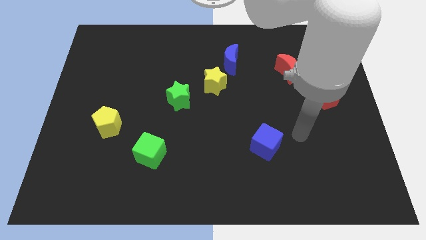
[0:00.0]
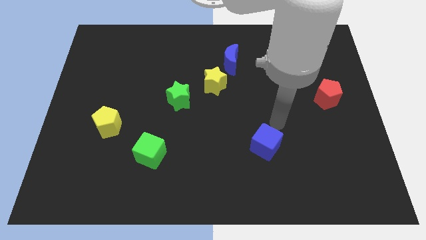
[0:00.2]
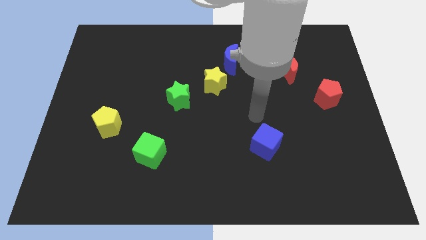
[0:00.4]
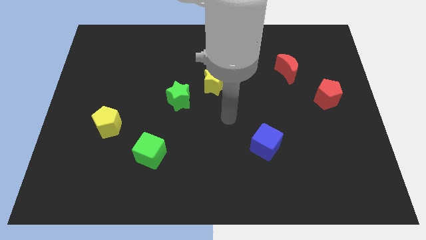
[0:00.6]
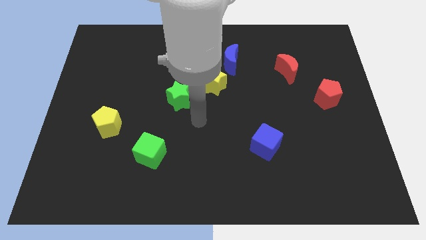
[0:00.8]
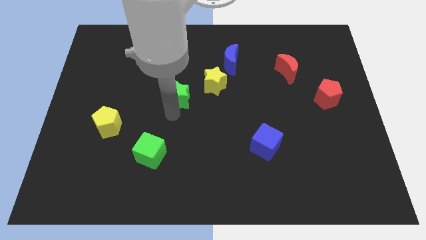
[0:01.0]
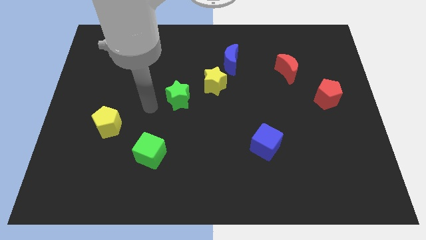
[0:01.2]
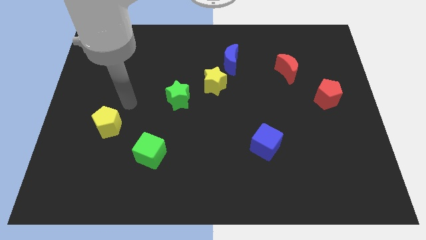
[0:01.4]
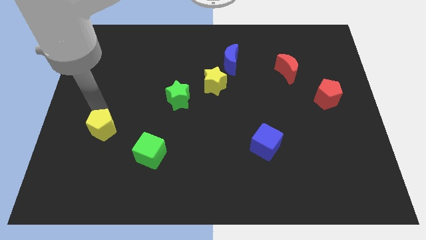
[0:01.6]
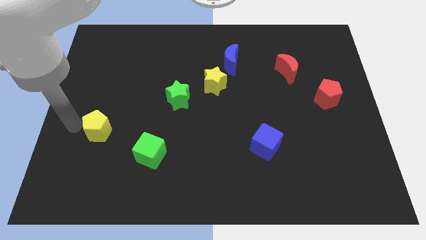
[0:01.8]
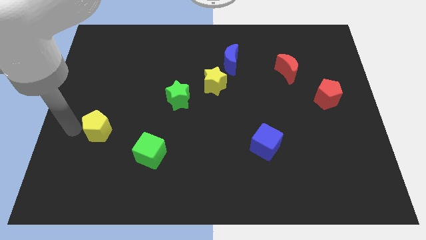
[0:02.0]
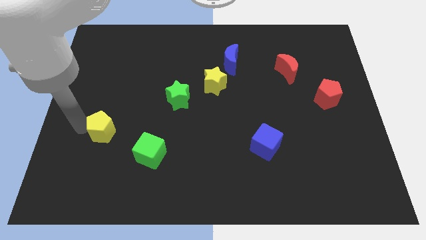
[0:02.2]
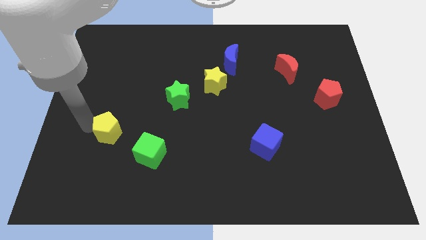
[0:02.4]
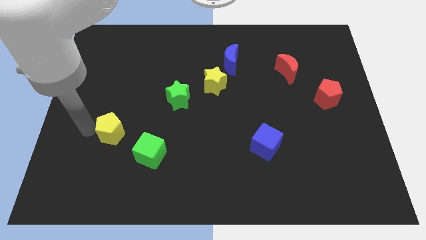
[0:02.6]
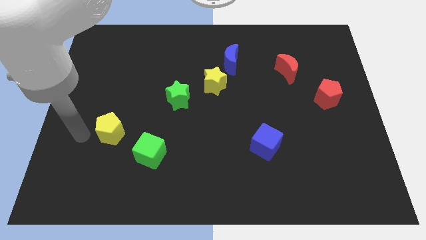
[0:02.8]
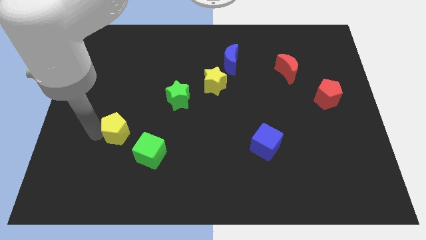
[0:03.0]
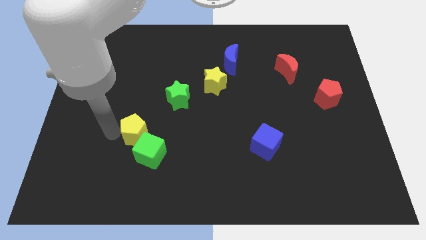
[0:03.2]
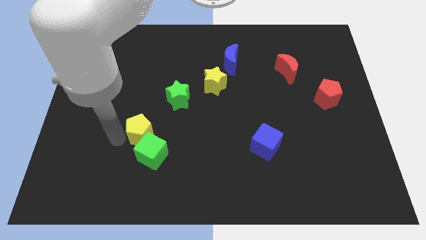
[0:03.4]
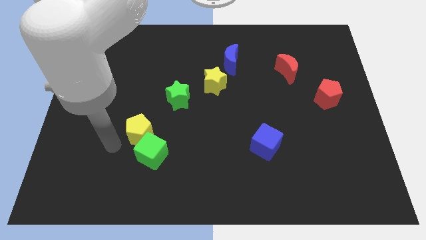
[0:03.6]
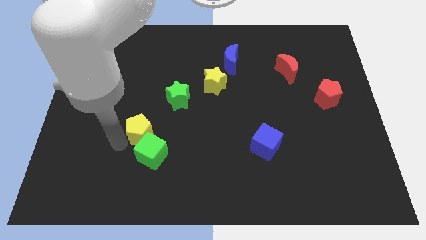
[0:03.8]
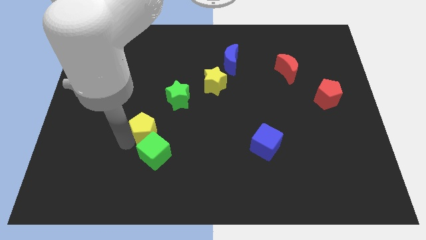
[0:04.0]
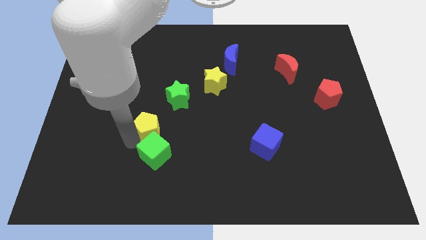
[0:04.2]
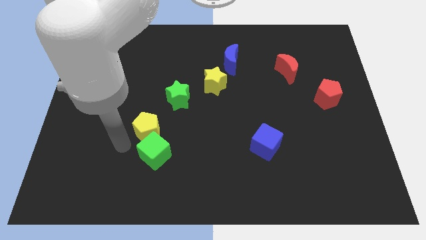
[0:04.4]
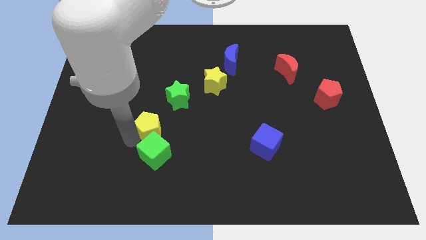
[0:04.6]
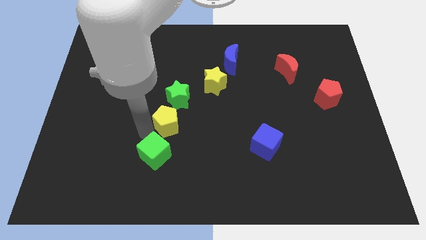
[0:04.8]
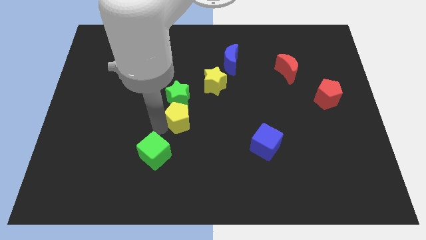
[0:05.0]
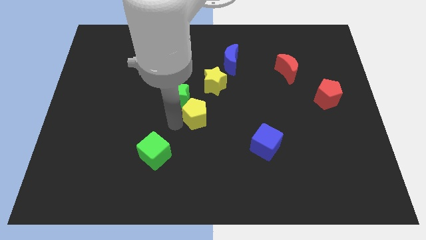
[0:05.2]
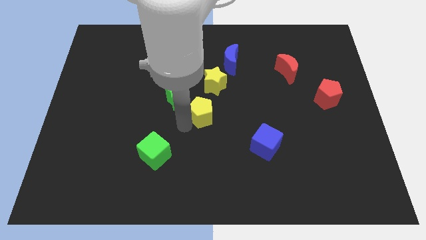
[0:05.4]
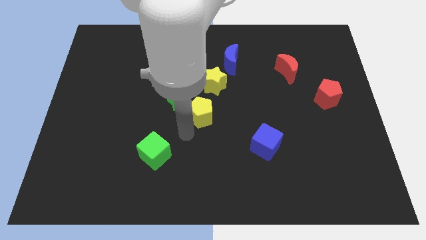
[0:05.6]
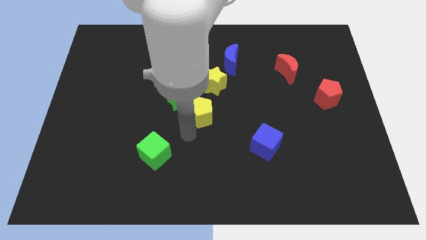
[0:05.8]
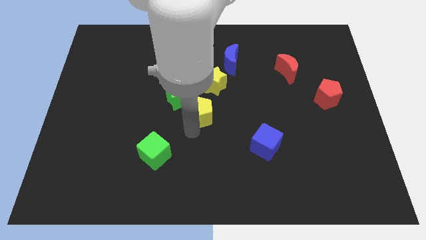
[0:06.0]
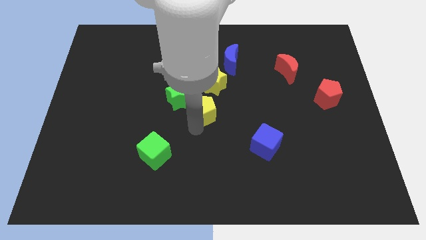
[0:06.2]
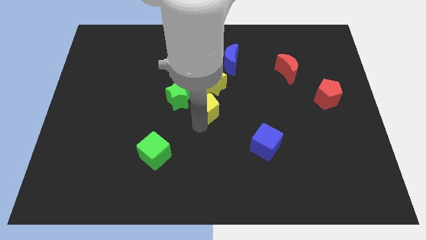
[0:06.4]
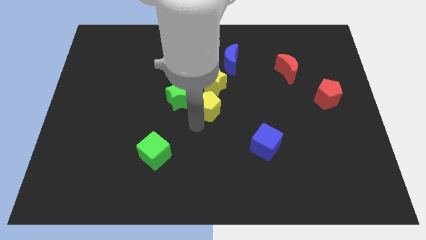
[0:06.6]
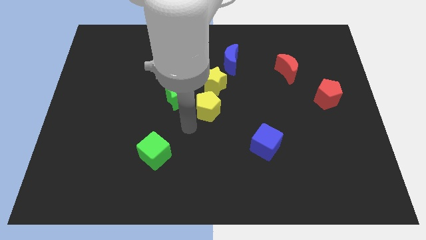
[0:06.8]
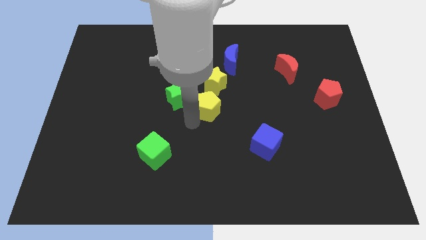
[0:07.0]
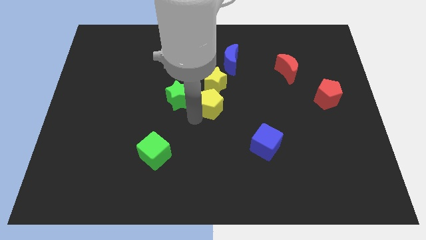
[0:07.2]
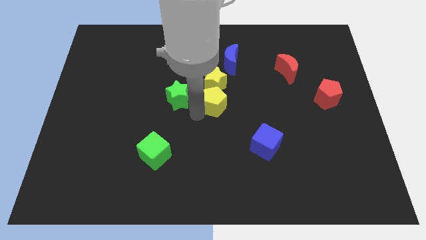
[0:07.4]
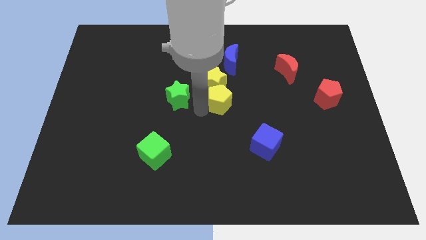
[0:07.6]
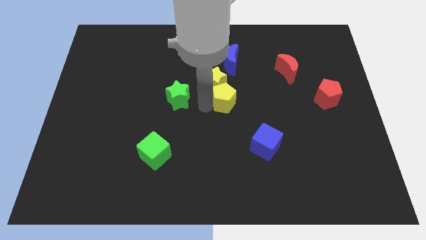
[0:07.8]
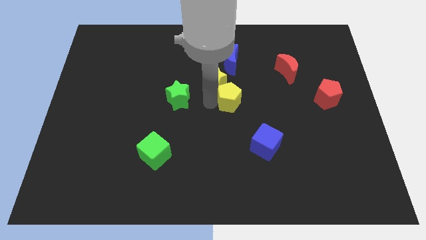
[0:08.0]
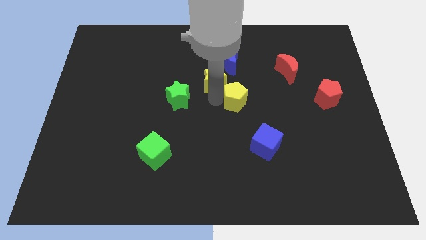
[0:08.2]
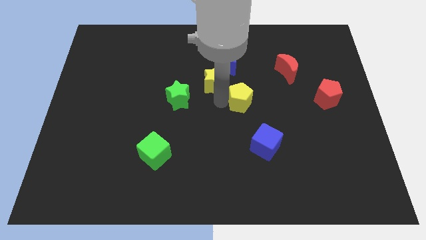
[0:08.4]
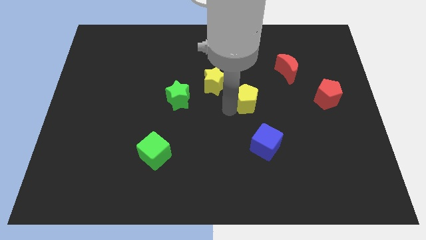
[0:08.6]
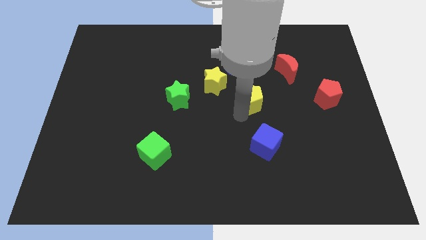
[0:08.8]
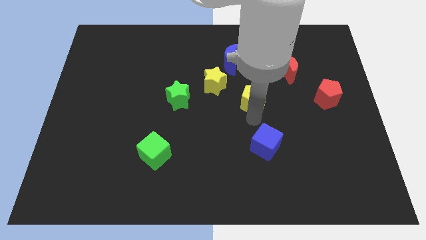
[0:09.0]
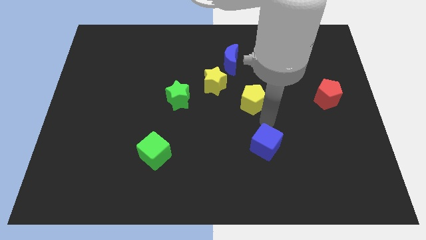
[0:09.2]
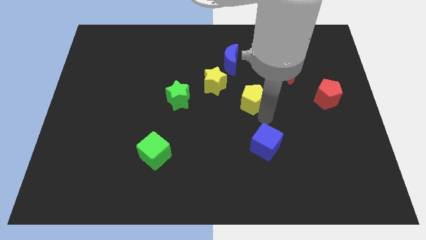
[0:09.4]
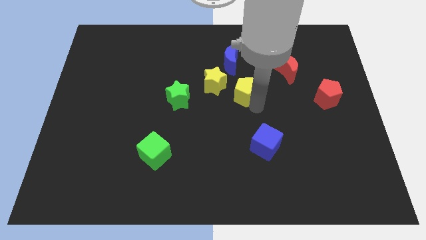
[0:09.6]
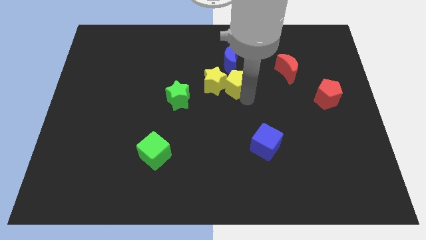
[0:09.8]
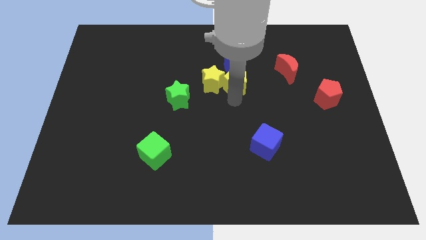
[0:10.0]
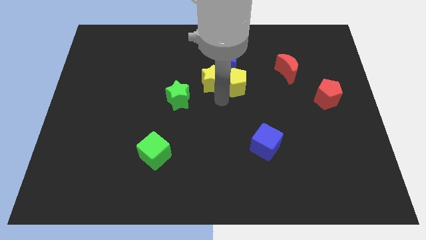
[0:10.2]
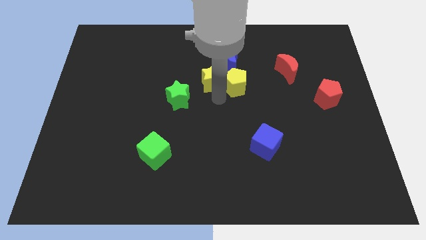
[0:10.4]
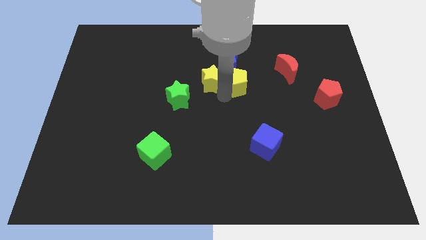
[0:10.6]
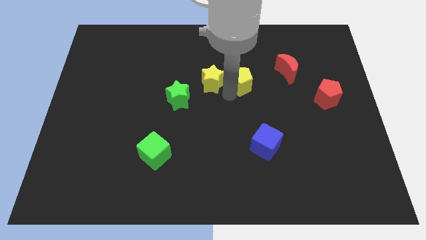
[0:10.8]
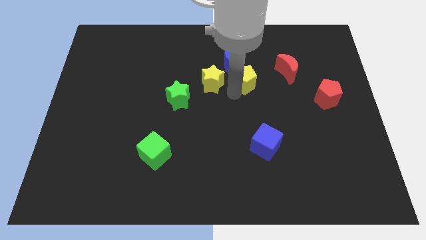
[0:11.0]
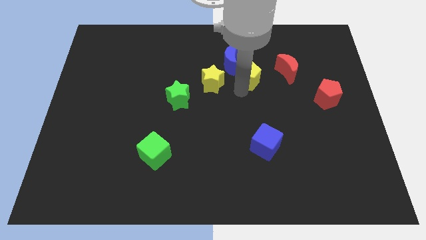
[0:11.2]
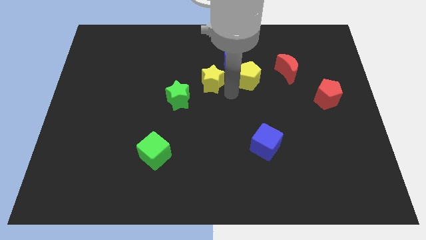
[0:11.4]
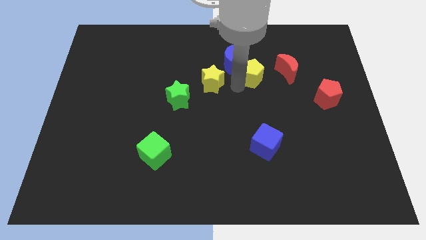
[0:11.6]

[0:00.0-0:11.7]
slide the yellow pentagon to the right of the blue moon

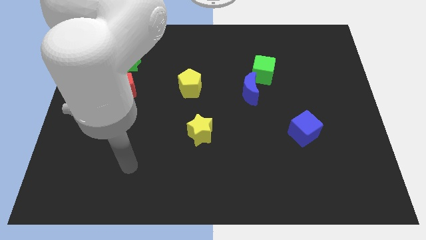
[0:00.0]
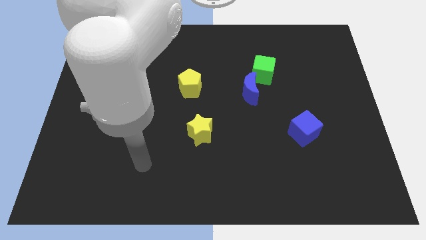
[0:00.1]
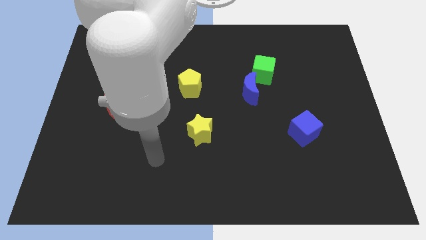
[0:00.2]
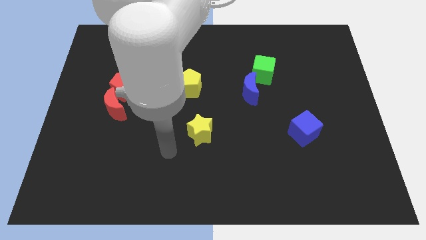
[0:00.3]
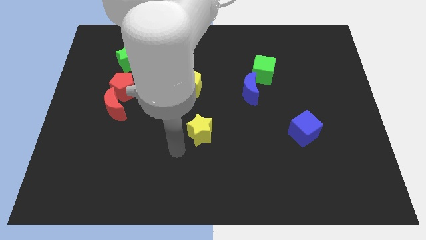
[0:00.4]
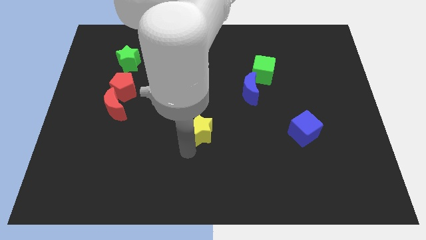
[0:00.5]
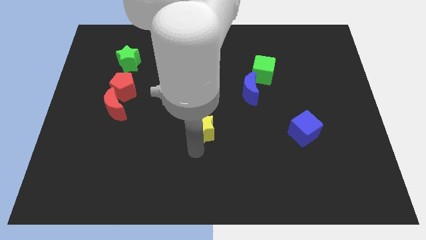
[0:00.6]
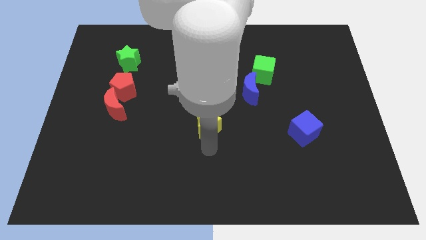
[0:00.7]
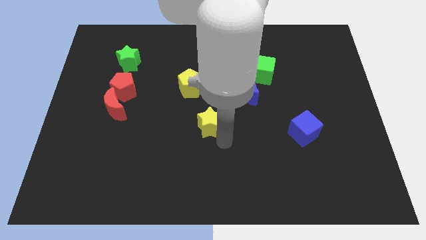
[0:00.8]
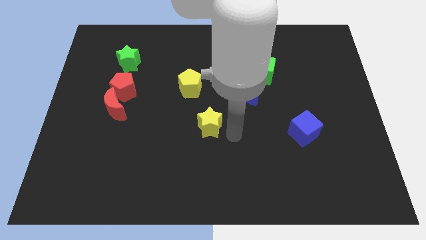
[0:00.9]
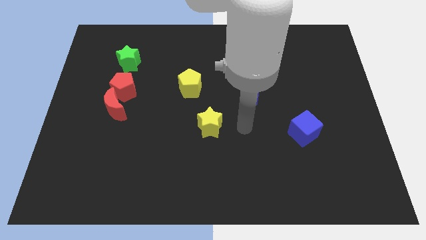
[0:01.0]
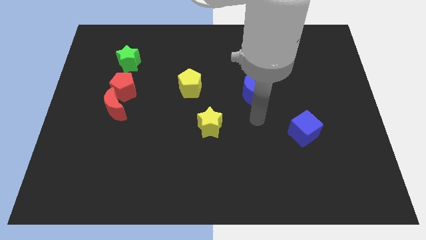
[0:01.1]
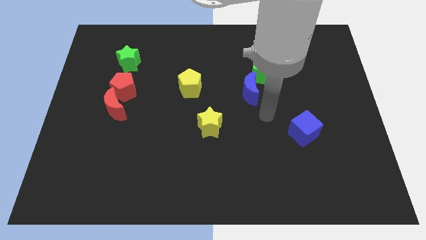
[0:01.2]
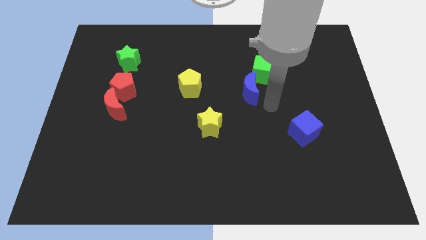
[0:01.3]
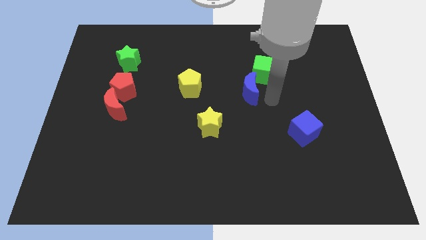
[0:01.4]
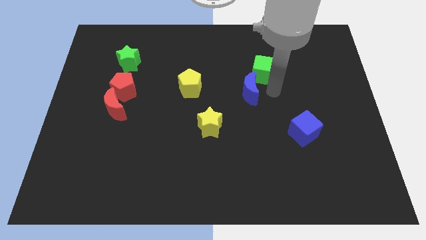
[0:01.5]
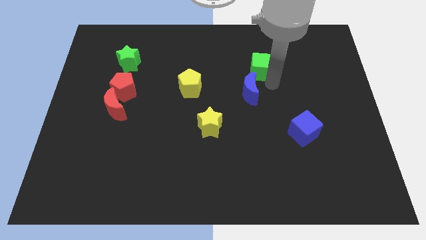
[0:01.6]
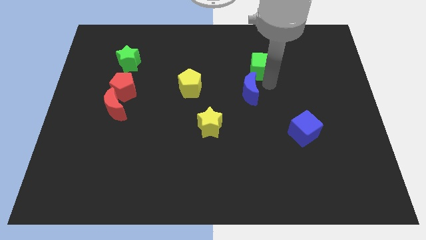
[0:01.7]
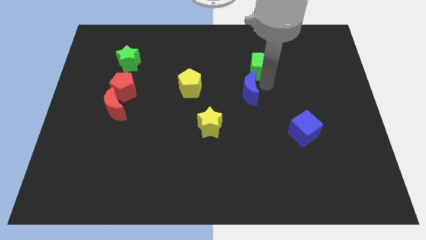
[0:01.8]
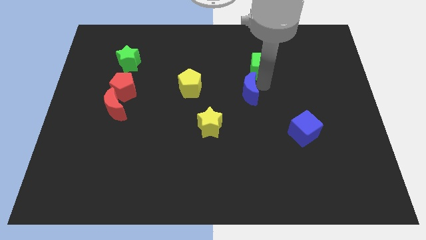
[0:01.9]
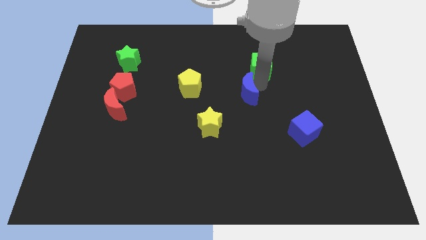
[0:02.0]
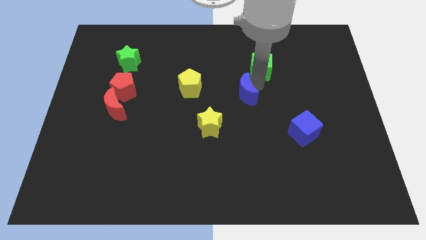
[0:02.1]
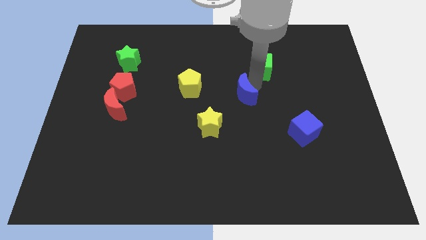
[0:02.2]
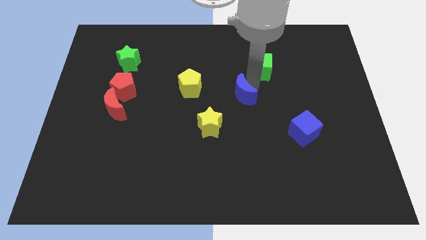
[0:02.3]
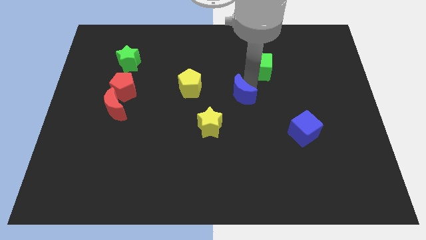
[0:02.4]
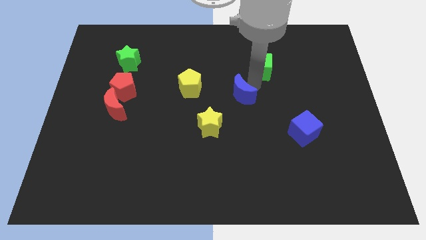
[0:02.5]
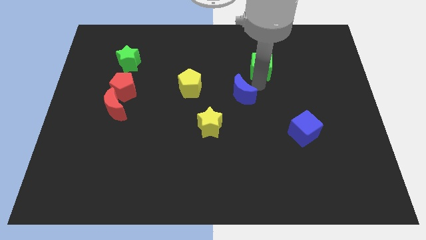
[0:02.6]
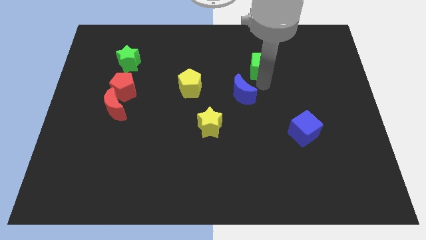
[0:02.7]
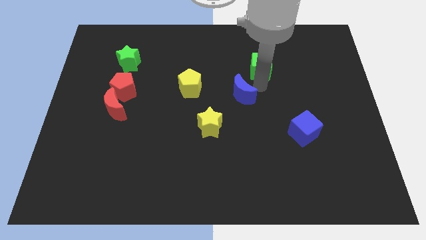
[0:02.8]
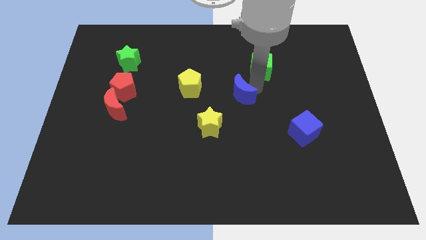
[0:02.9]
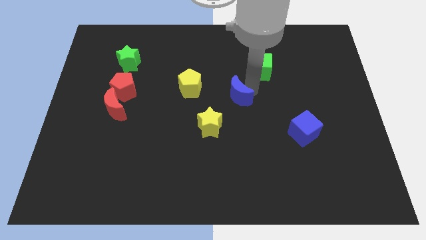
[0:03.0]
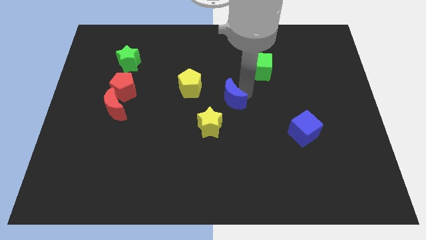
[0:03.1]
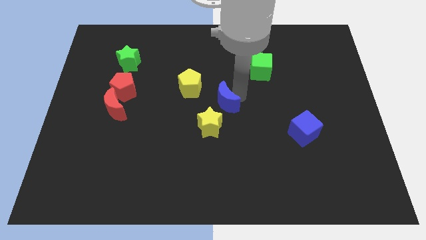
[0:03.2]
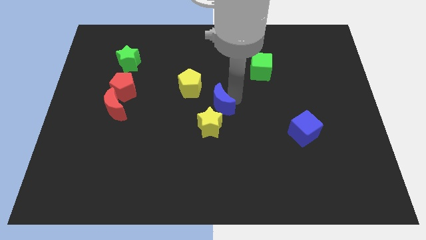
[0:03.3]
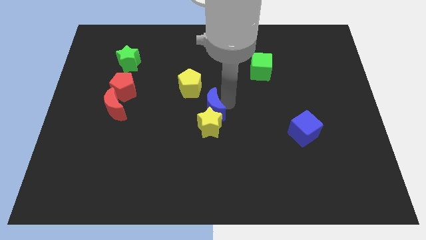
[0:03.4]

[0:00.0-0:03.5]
slide the blue moon to the top left of the yellow star
